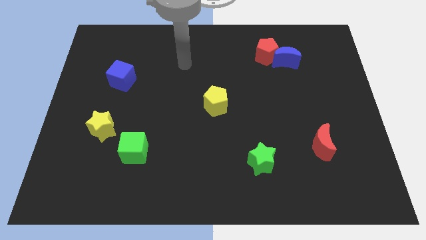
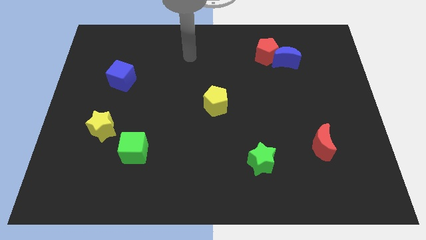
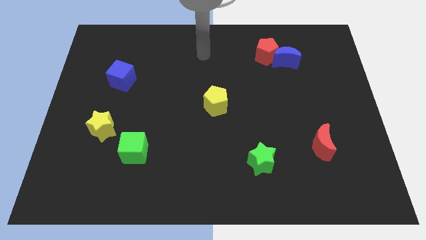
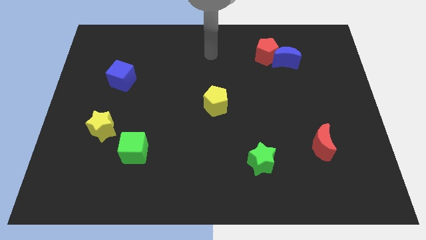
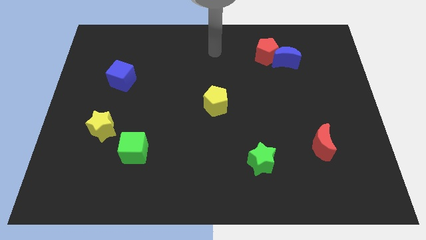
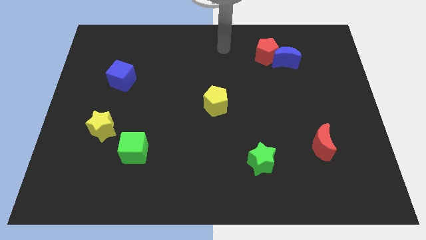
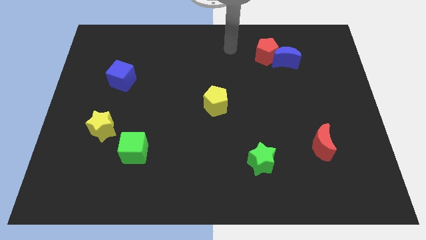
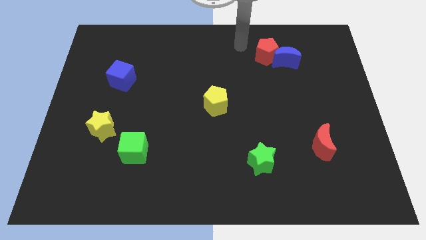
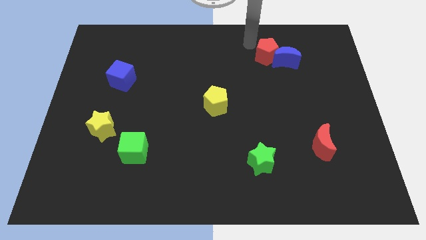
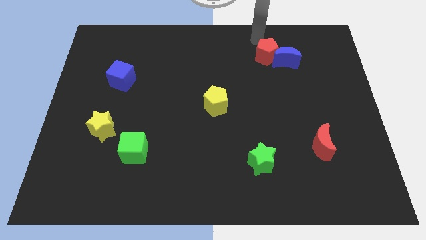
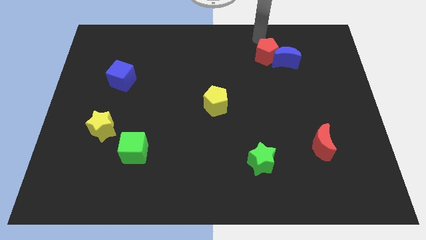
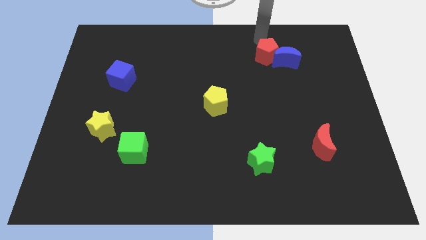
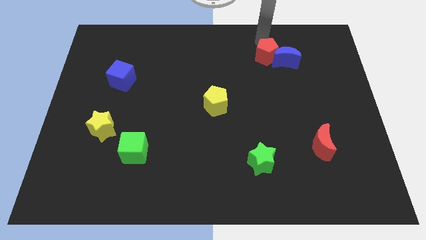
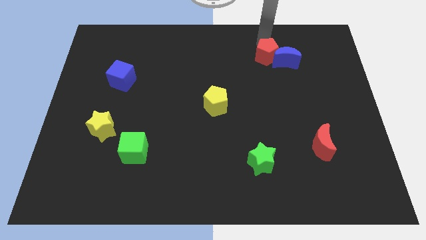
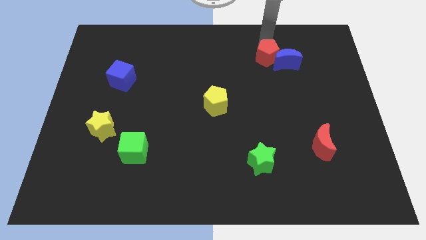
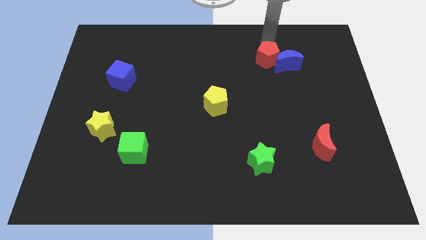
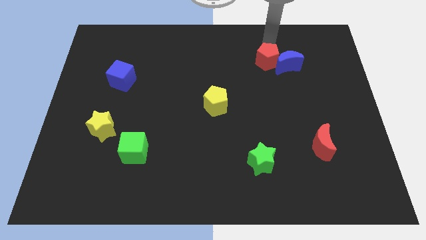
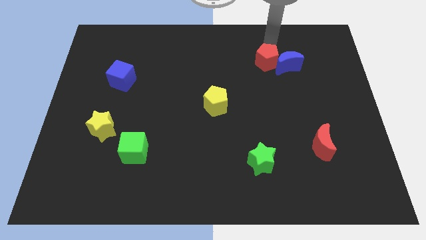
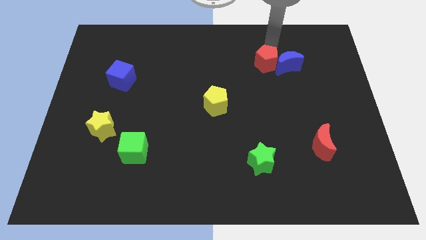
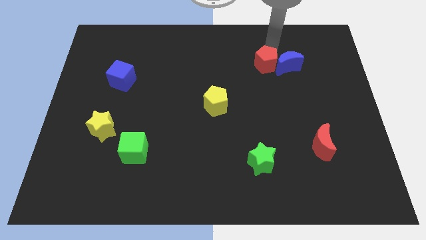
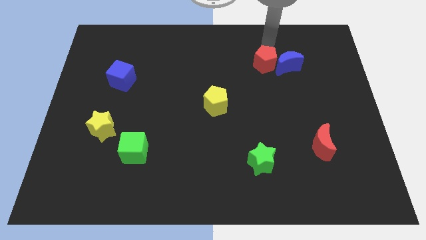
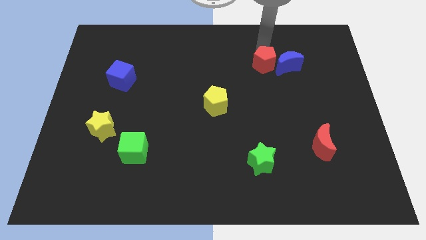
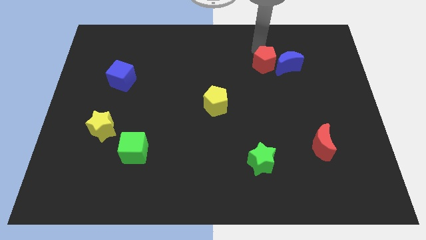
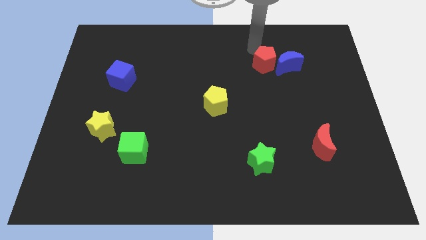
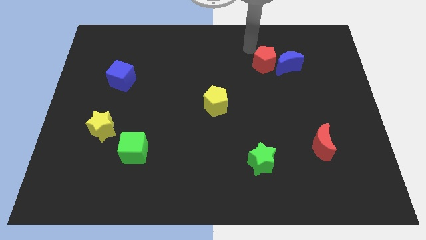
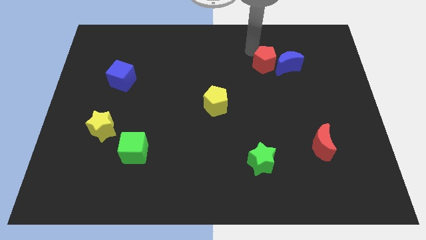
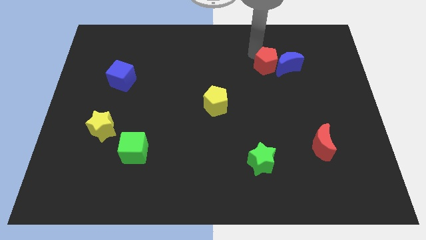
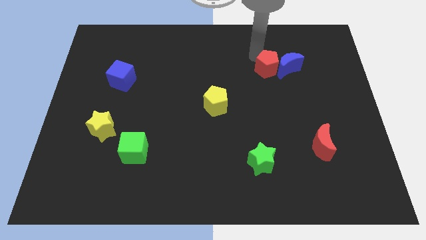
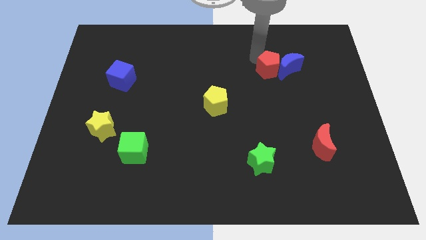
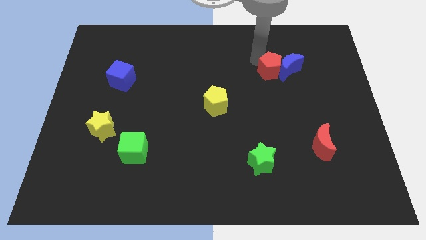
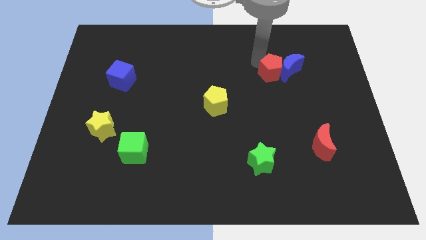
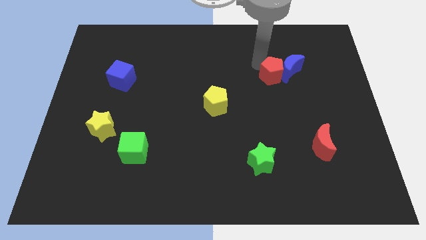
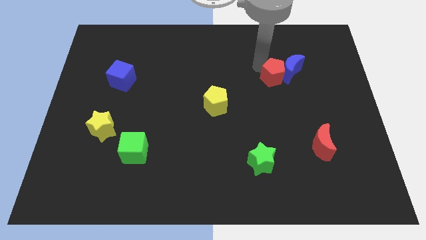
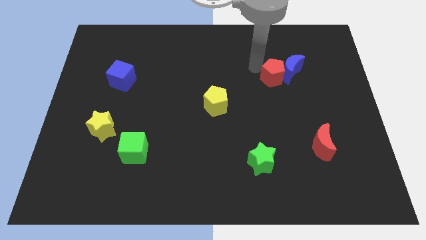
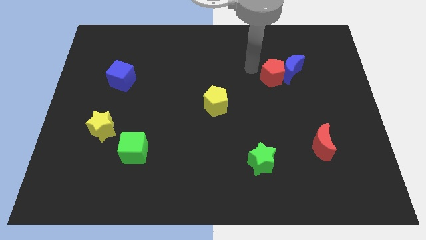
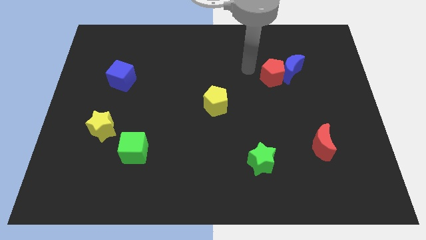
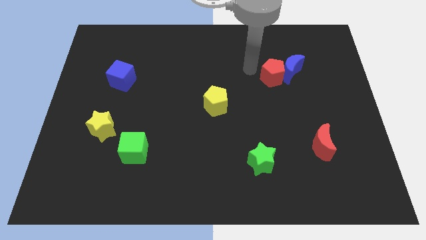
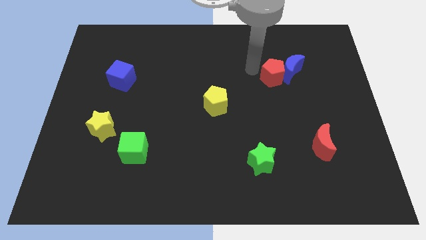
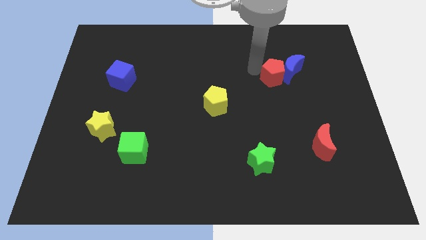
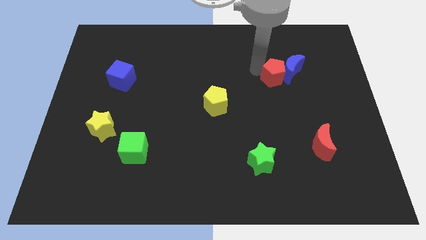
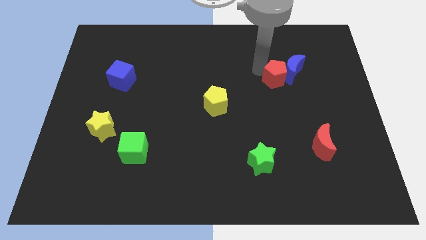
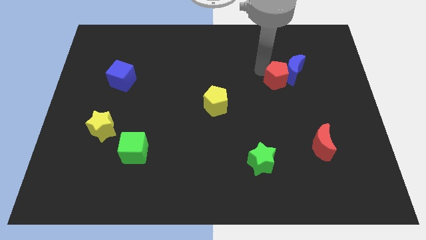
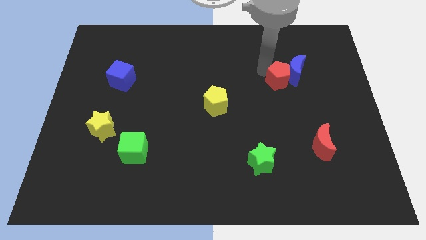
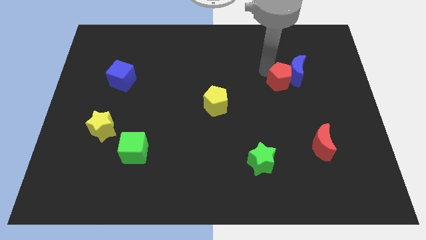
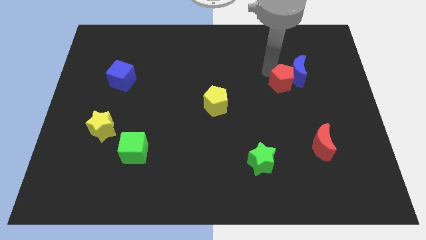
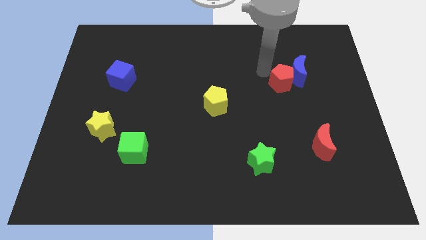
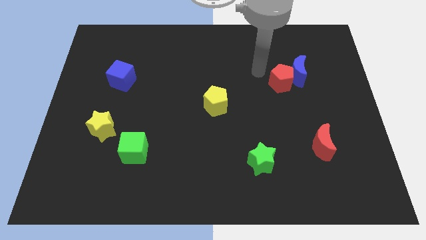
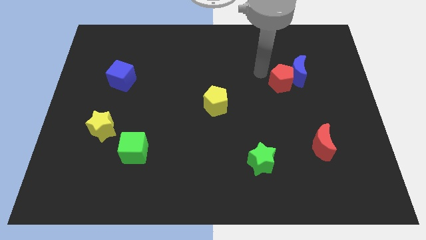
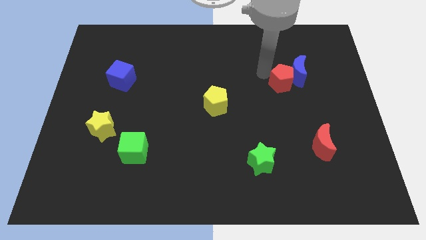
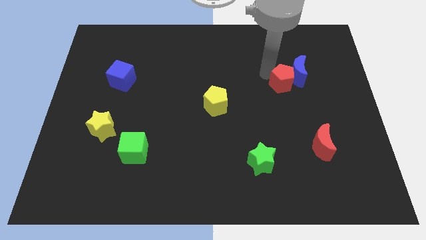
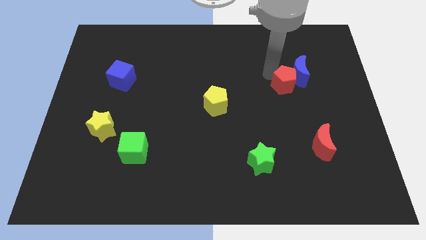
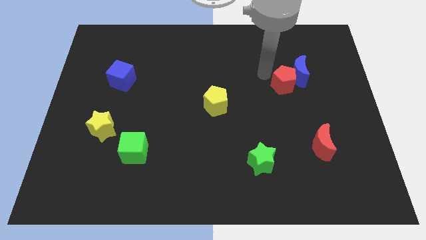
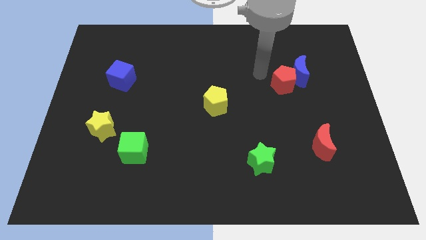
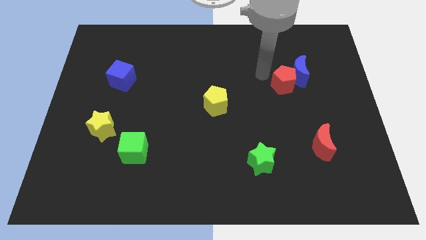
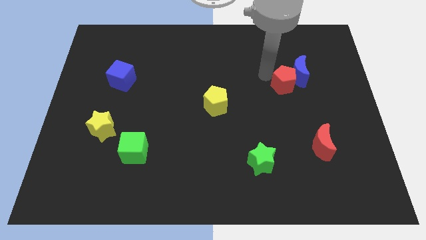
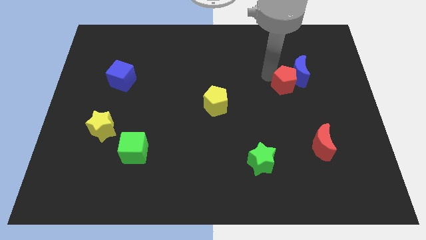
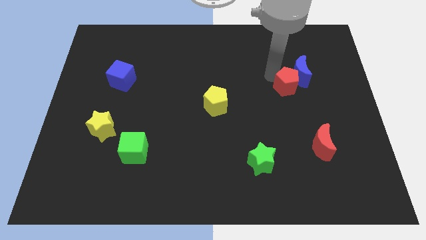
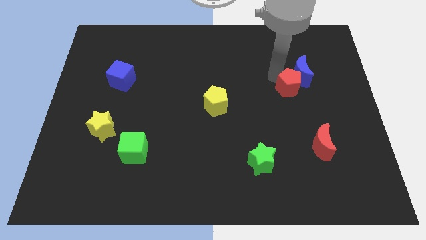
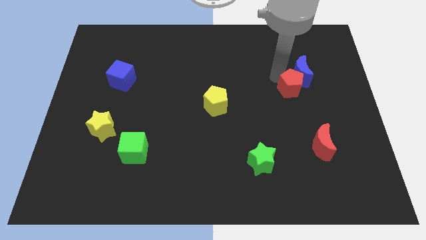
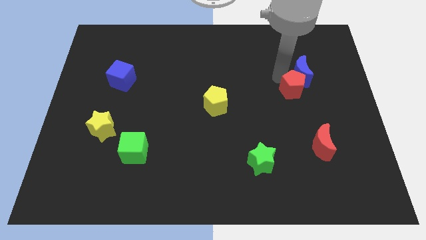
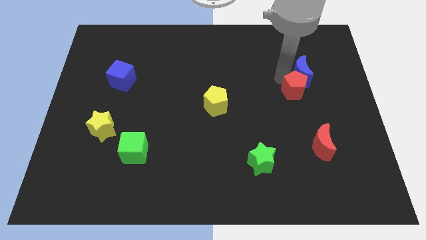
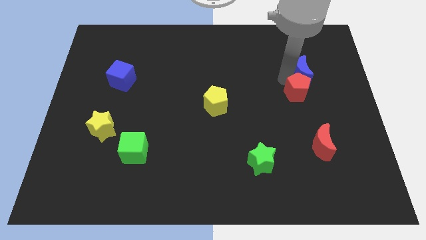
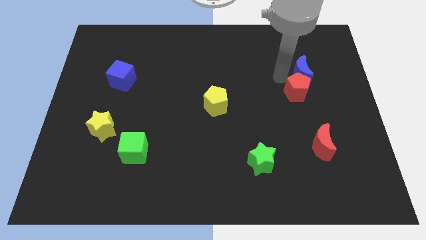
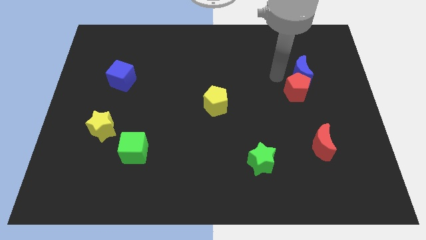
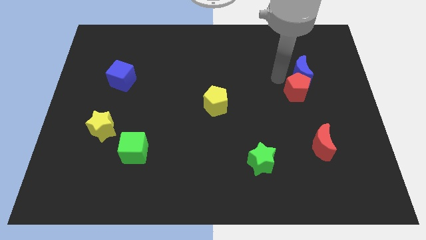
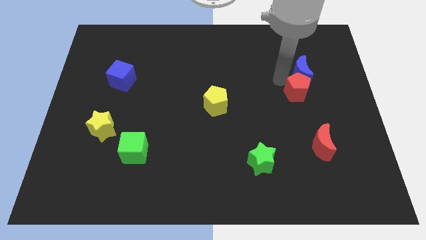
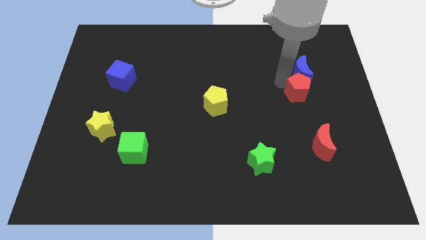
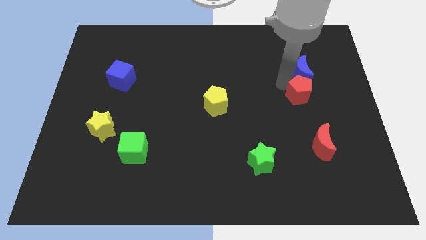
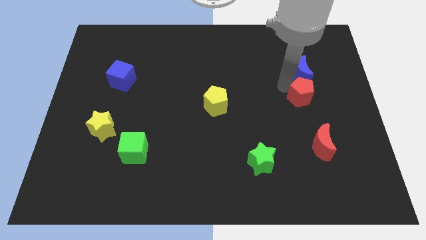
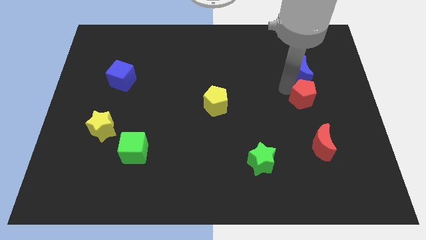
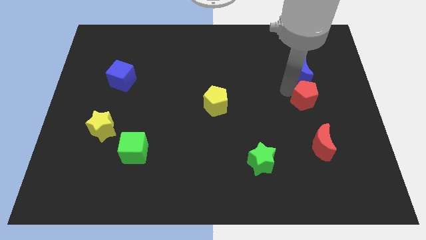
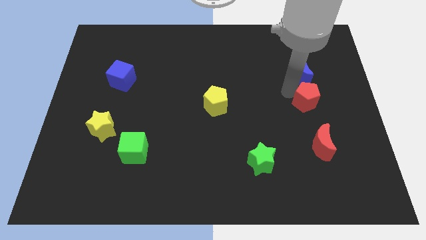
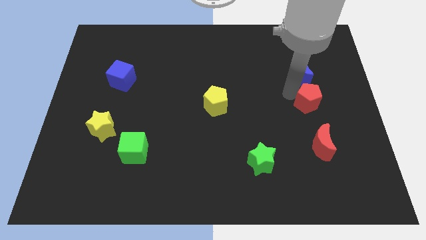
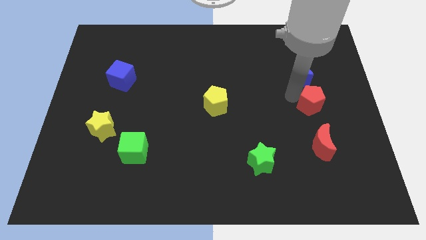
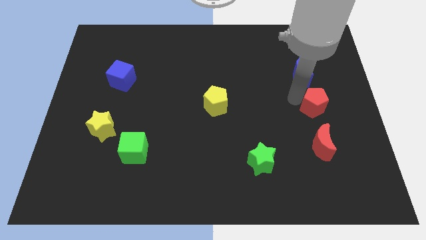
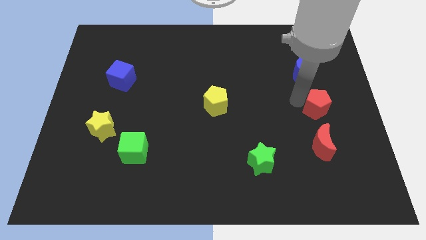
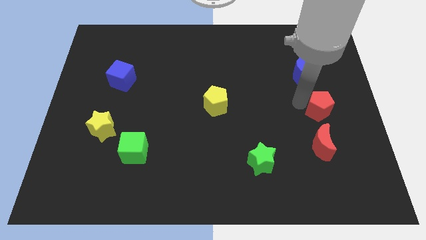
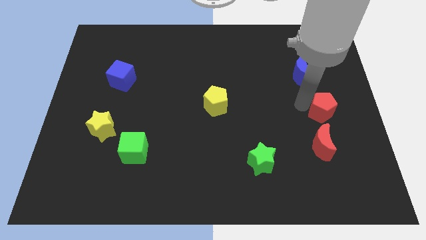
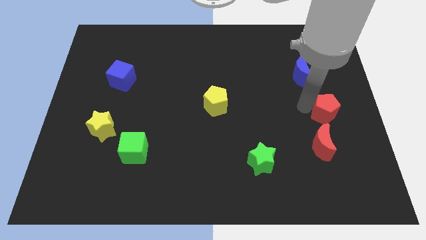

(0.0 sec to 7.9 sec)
slide the red pentagon diagonally up and to the right of the red moon
